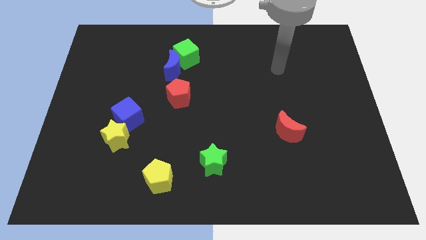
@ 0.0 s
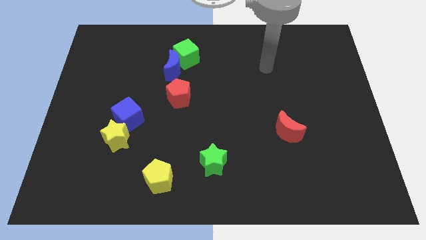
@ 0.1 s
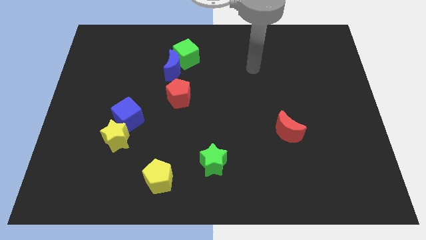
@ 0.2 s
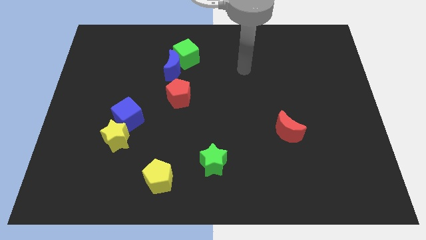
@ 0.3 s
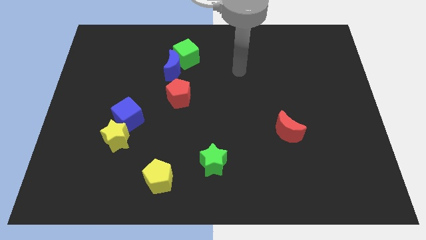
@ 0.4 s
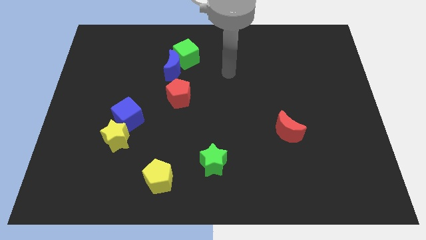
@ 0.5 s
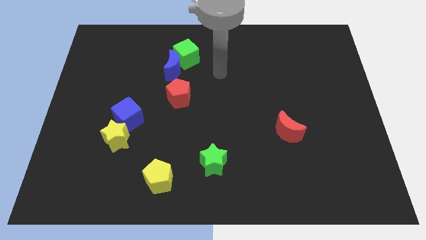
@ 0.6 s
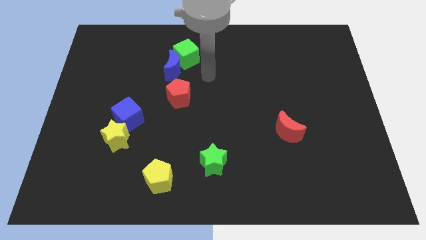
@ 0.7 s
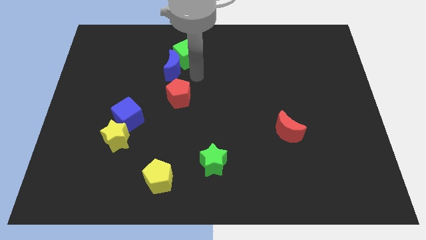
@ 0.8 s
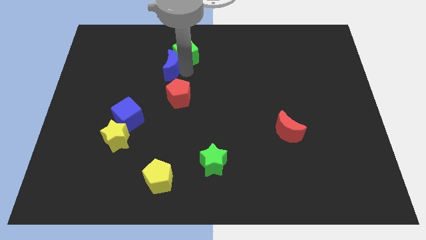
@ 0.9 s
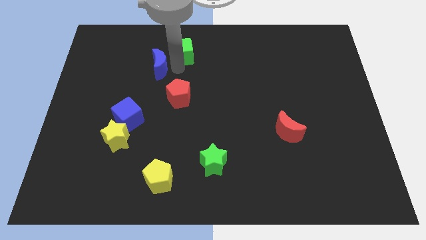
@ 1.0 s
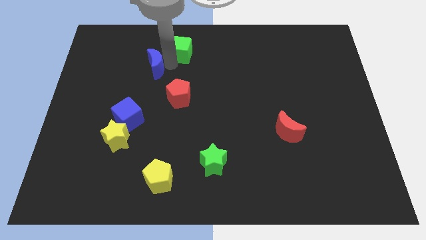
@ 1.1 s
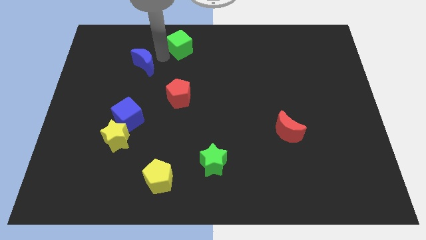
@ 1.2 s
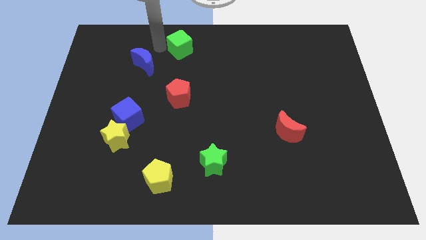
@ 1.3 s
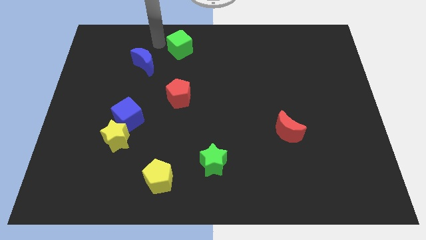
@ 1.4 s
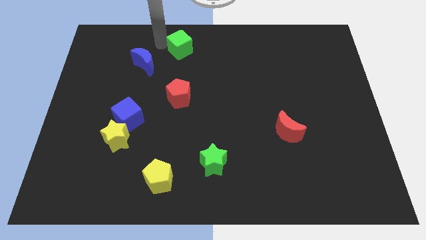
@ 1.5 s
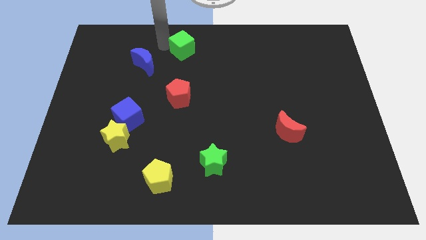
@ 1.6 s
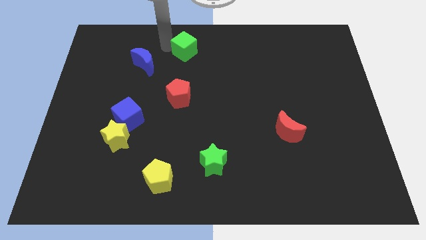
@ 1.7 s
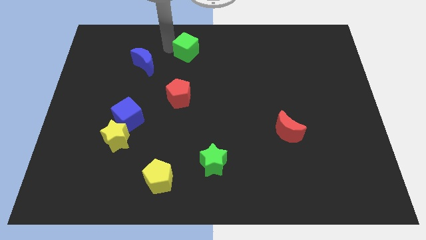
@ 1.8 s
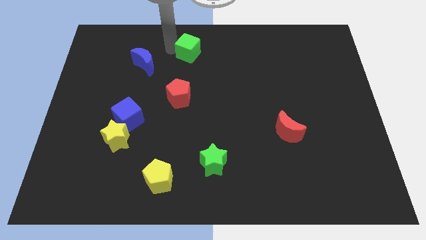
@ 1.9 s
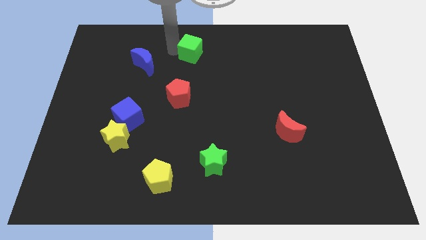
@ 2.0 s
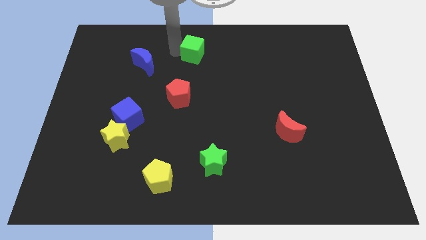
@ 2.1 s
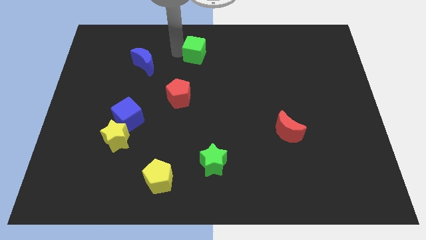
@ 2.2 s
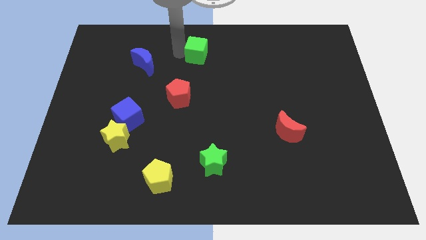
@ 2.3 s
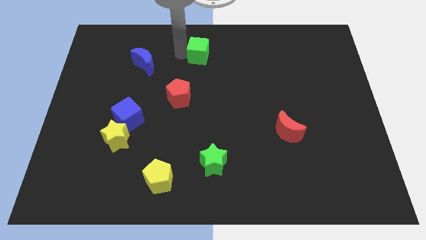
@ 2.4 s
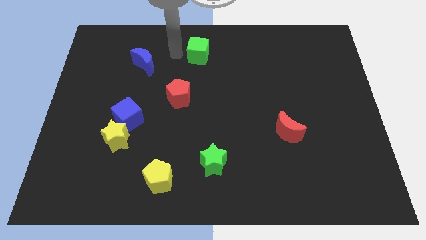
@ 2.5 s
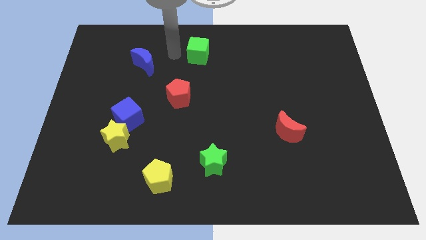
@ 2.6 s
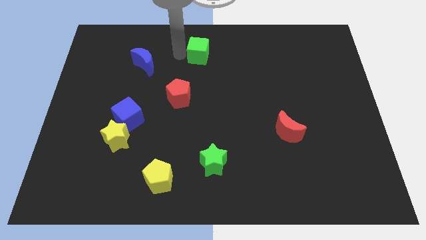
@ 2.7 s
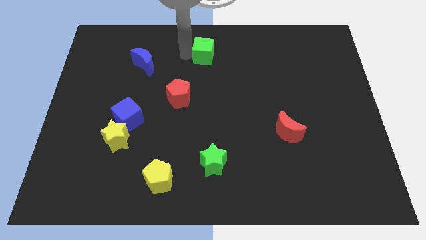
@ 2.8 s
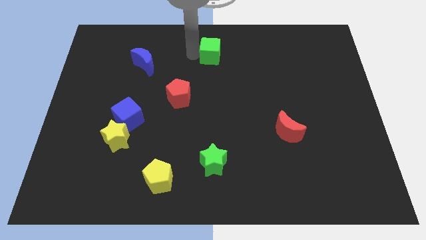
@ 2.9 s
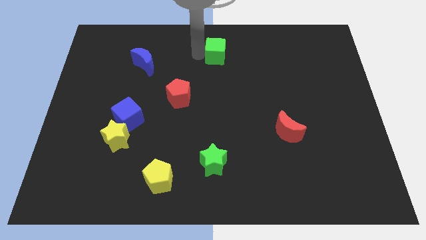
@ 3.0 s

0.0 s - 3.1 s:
push the green cube to the right a bit

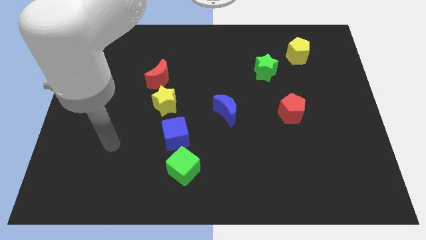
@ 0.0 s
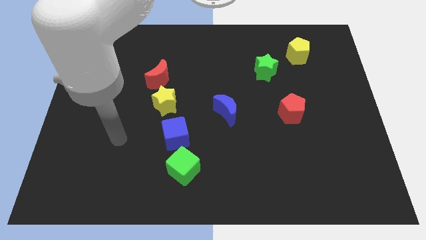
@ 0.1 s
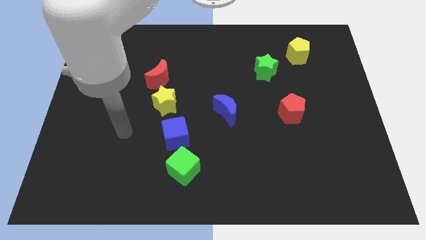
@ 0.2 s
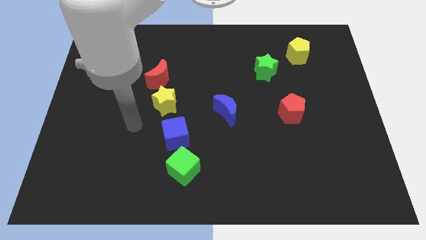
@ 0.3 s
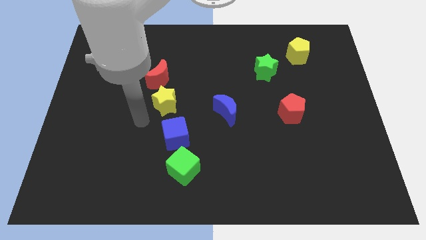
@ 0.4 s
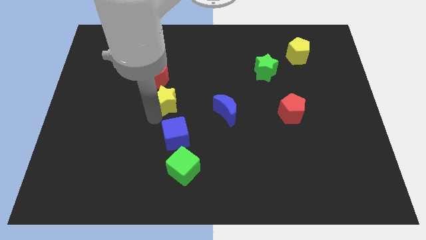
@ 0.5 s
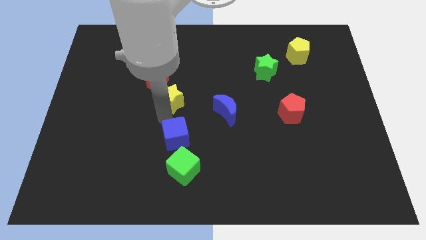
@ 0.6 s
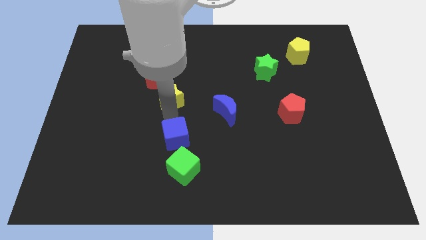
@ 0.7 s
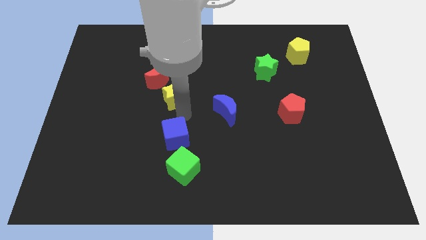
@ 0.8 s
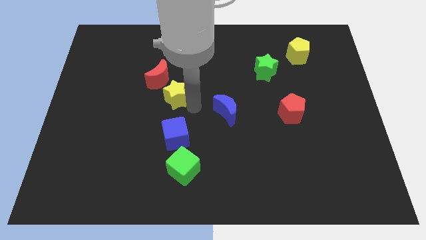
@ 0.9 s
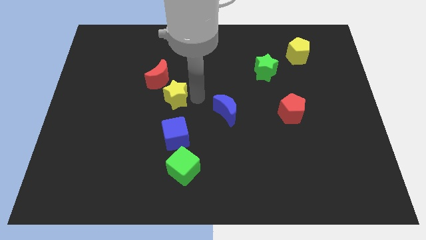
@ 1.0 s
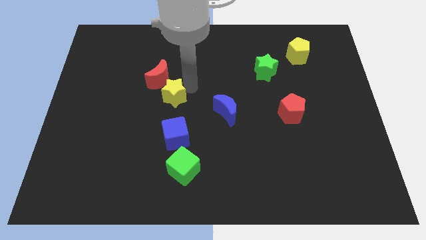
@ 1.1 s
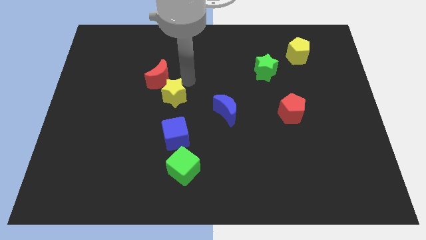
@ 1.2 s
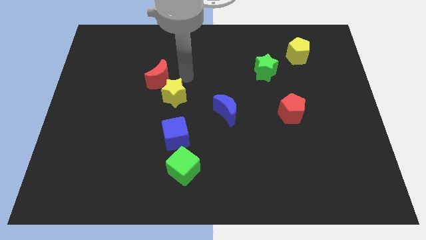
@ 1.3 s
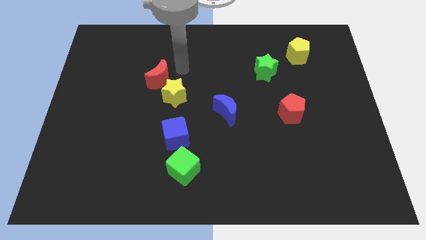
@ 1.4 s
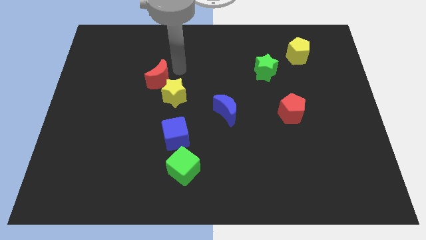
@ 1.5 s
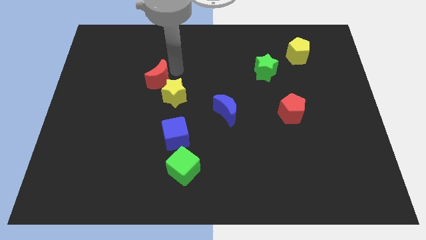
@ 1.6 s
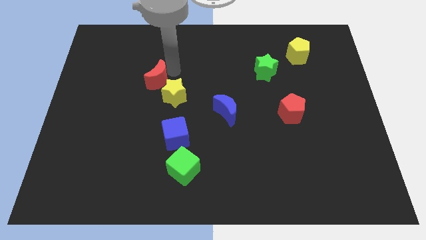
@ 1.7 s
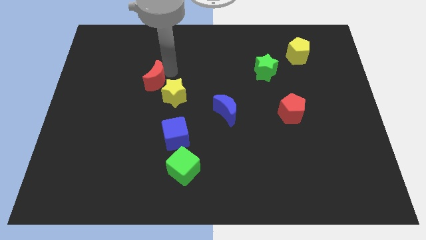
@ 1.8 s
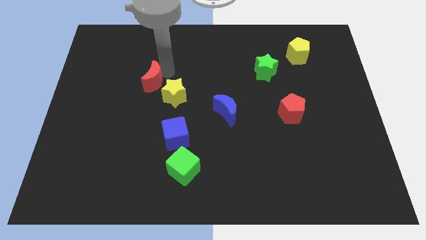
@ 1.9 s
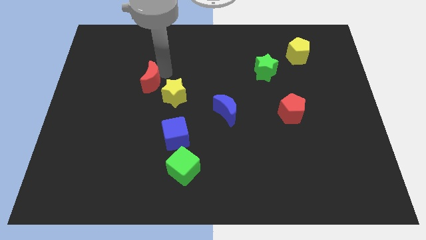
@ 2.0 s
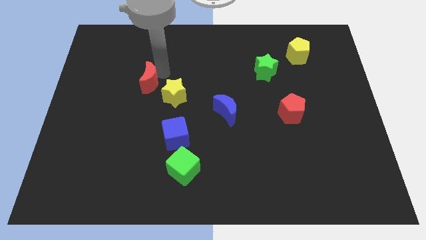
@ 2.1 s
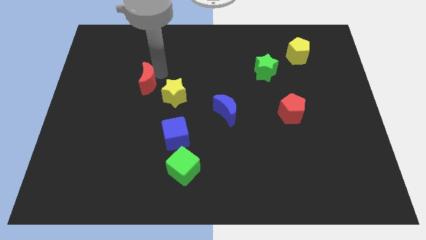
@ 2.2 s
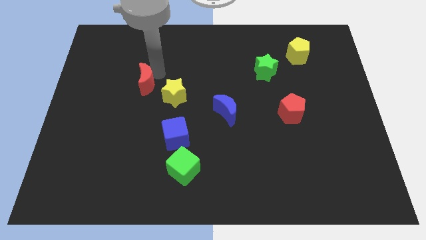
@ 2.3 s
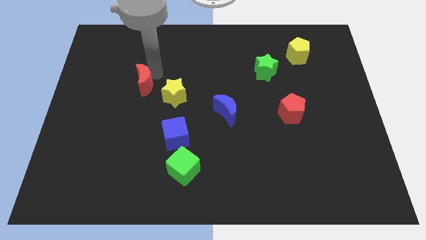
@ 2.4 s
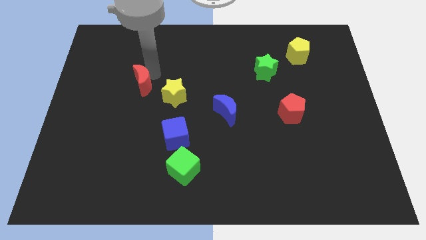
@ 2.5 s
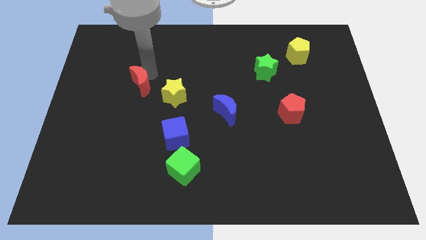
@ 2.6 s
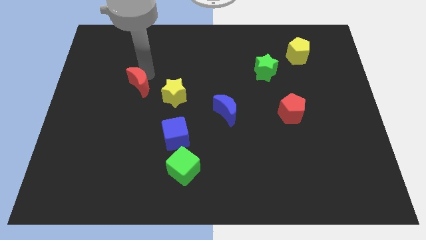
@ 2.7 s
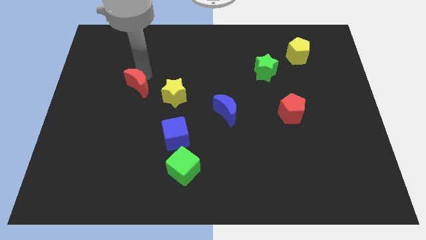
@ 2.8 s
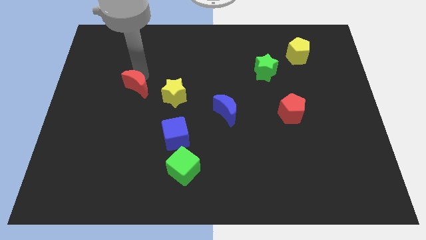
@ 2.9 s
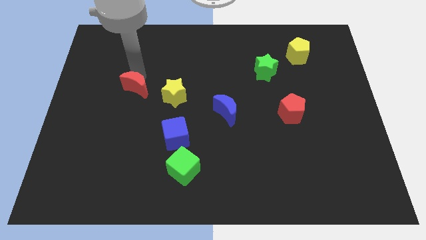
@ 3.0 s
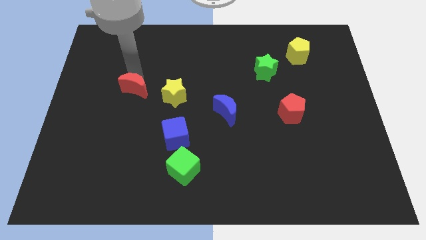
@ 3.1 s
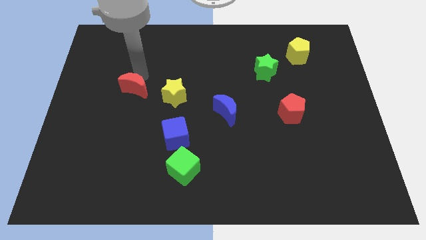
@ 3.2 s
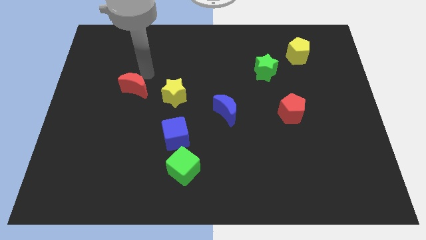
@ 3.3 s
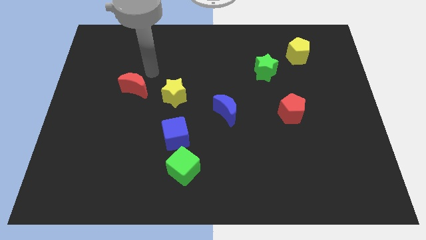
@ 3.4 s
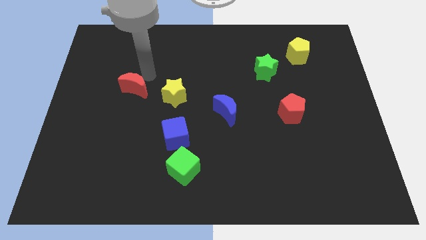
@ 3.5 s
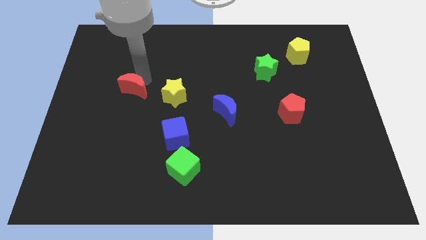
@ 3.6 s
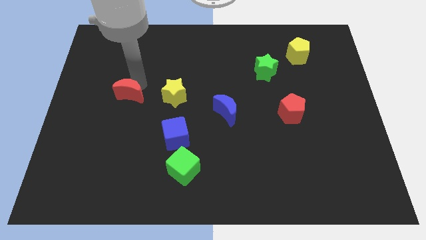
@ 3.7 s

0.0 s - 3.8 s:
slide the red moon down and left a little bit

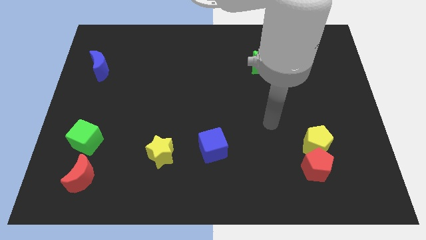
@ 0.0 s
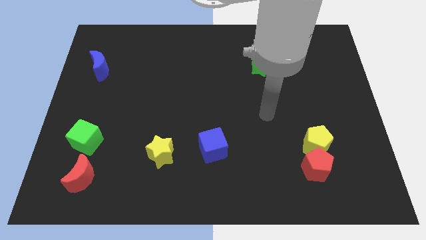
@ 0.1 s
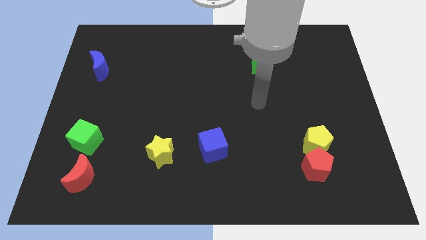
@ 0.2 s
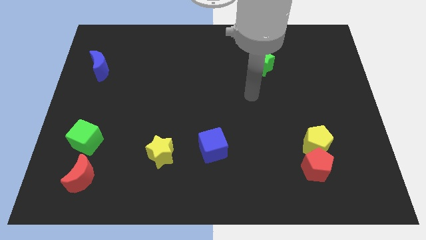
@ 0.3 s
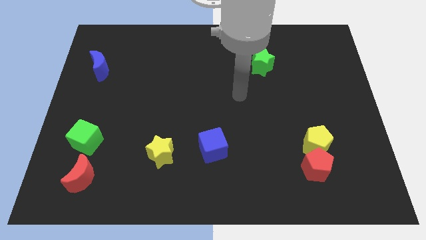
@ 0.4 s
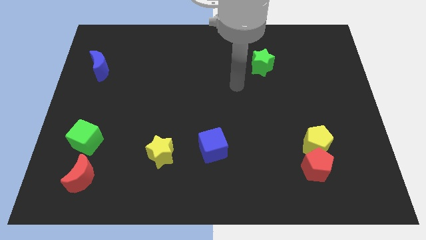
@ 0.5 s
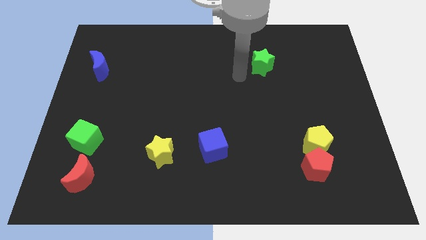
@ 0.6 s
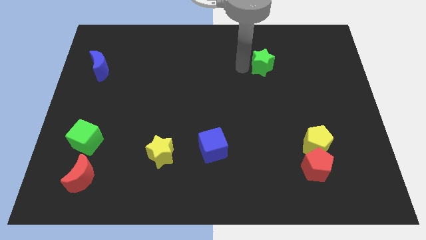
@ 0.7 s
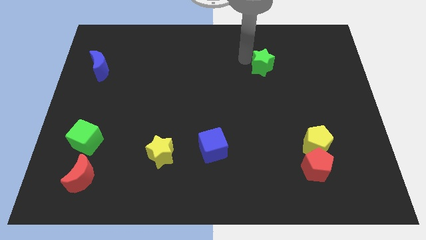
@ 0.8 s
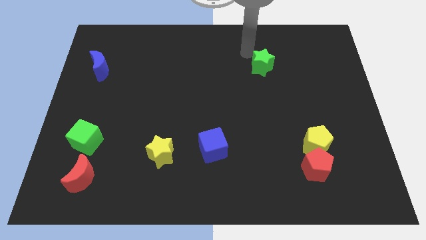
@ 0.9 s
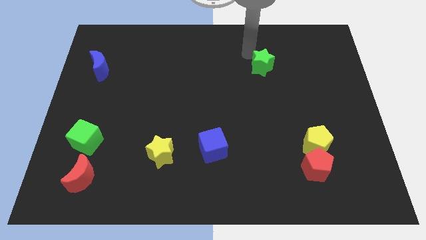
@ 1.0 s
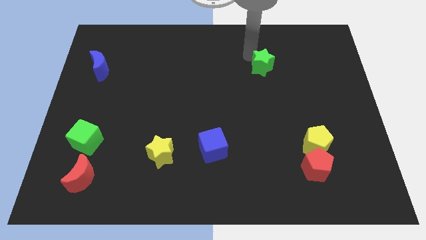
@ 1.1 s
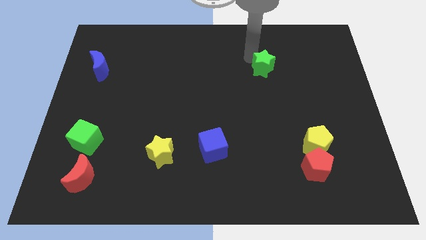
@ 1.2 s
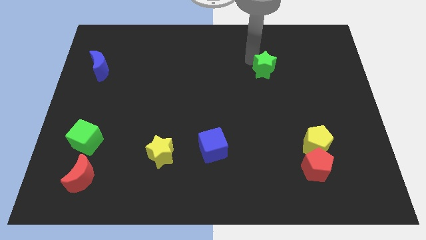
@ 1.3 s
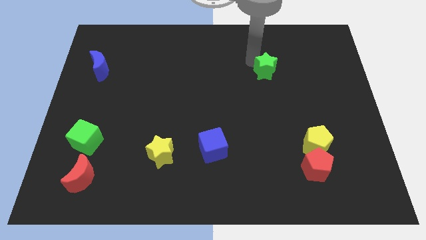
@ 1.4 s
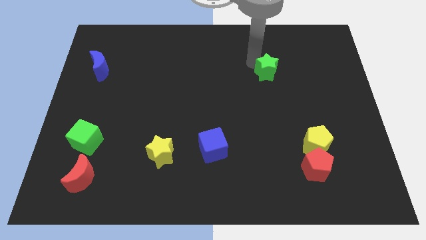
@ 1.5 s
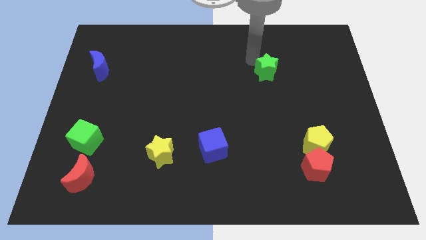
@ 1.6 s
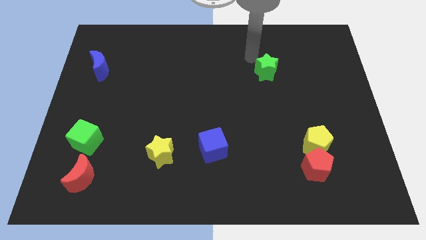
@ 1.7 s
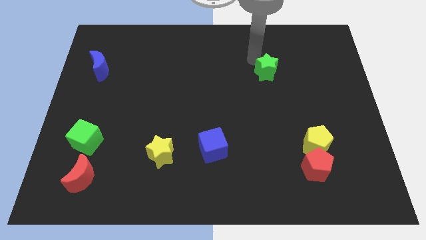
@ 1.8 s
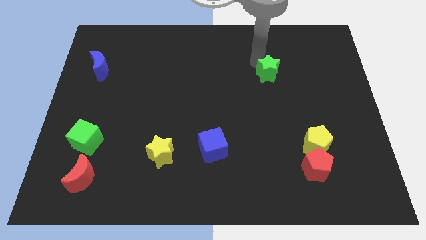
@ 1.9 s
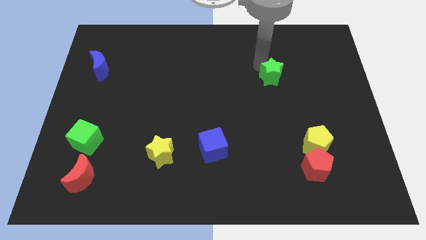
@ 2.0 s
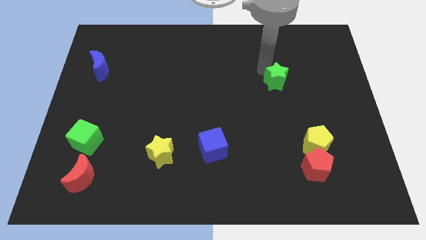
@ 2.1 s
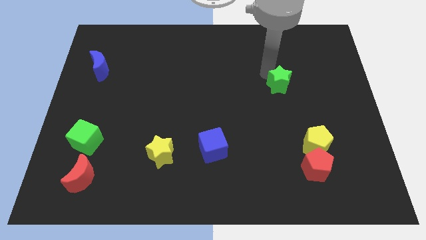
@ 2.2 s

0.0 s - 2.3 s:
slightly push the green star diagonally down and right
